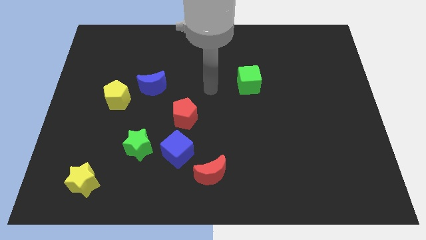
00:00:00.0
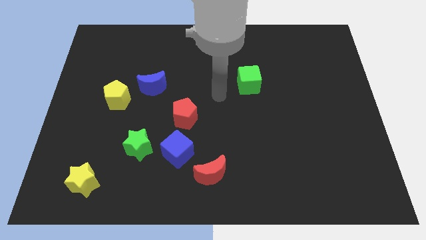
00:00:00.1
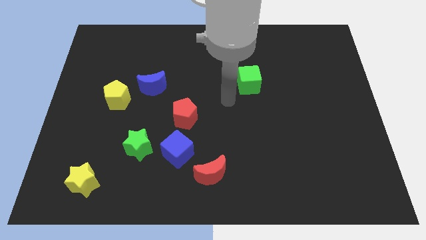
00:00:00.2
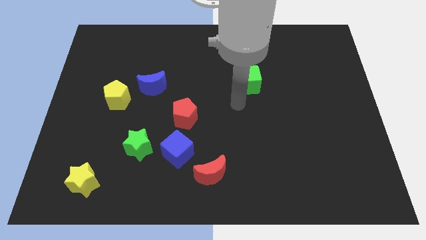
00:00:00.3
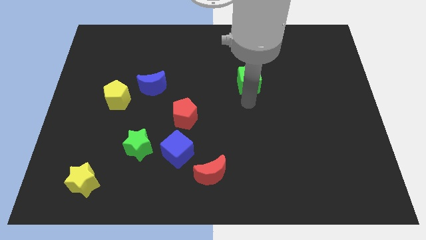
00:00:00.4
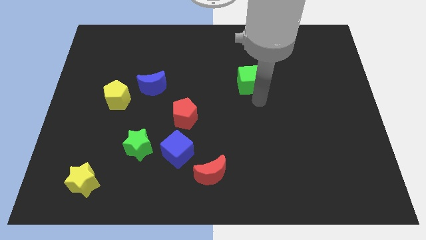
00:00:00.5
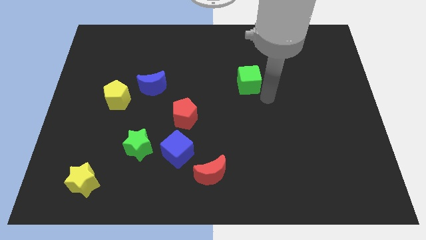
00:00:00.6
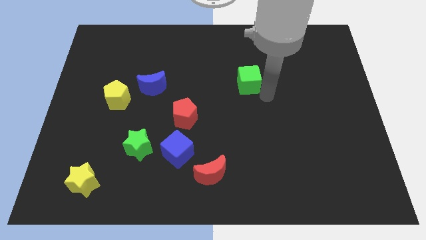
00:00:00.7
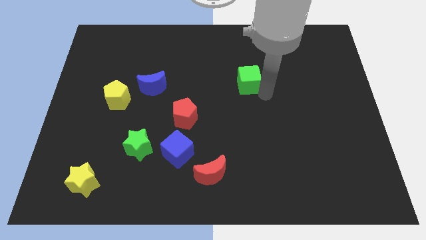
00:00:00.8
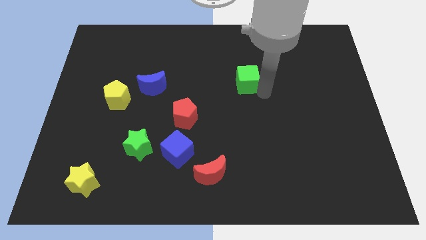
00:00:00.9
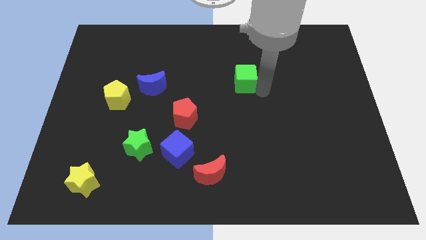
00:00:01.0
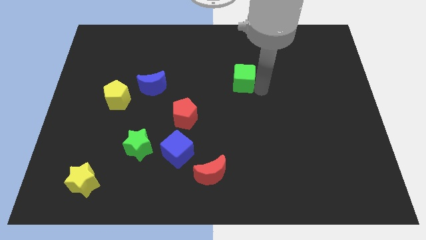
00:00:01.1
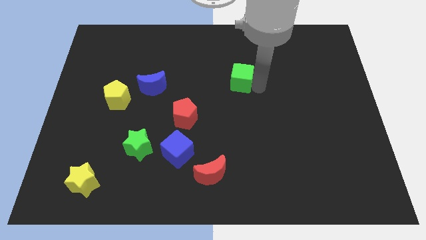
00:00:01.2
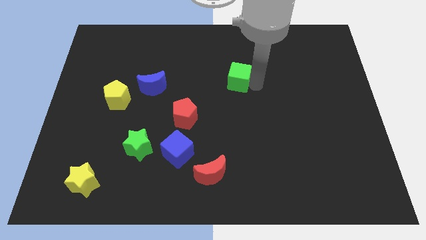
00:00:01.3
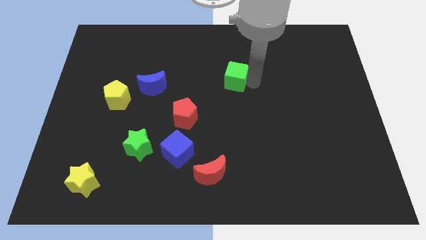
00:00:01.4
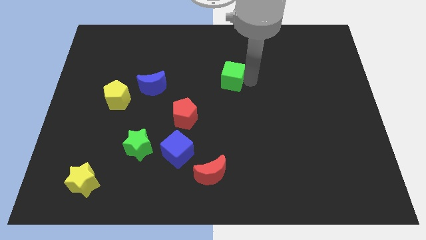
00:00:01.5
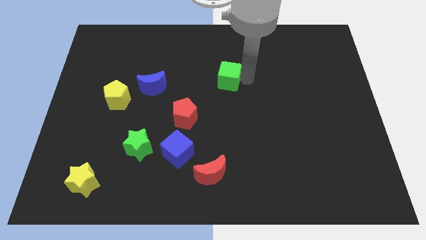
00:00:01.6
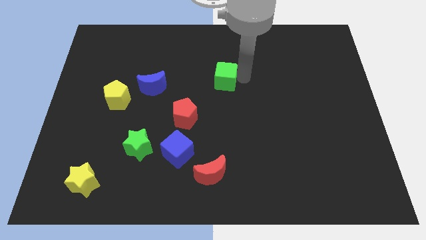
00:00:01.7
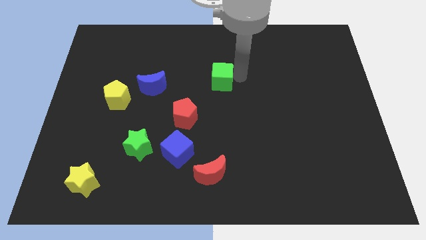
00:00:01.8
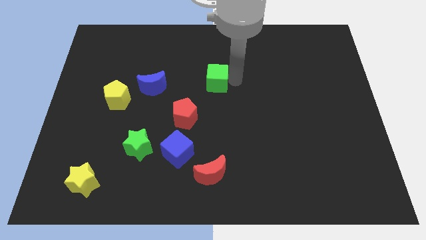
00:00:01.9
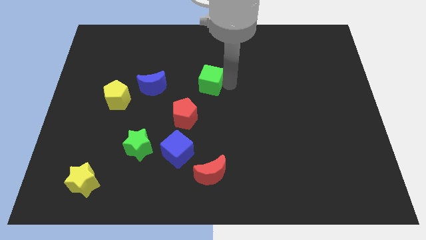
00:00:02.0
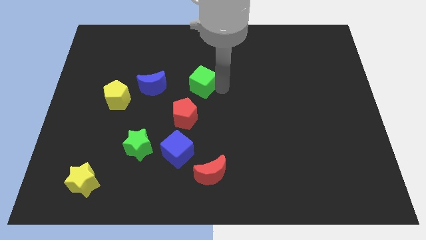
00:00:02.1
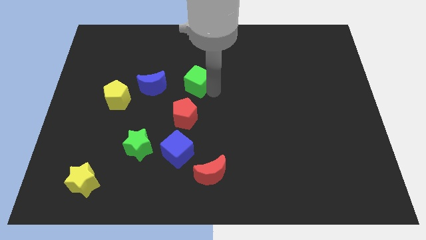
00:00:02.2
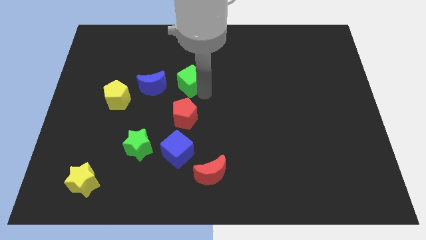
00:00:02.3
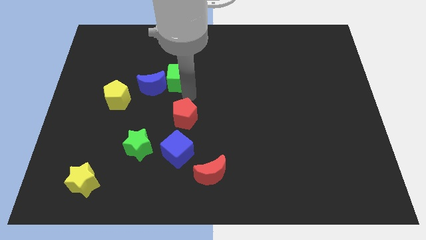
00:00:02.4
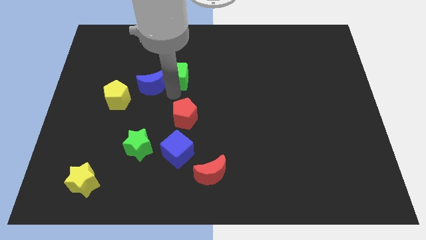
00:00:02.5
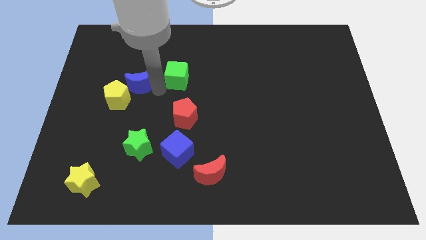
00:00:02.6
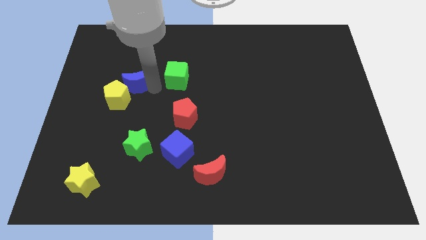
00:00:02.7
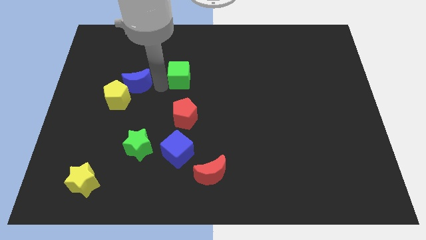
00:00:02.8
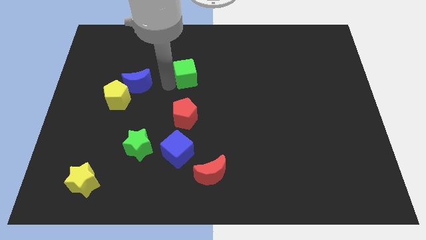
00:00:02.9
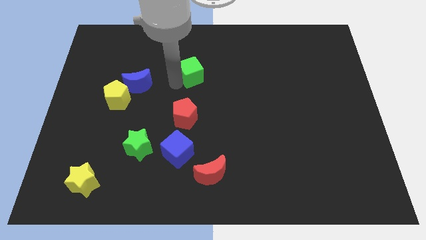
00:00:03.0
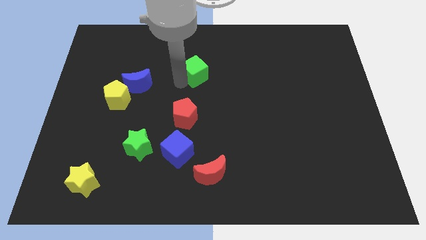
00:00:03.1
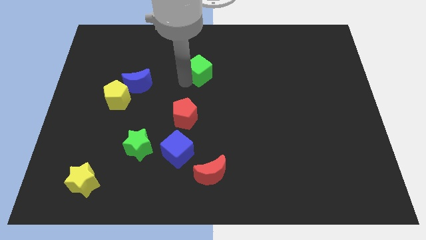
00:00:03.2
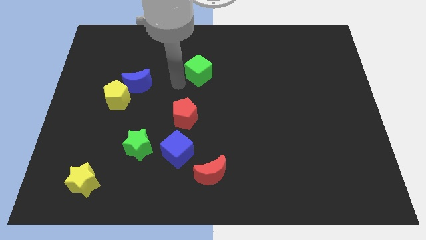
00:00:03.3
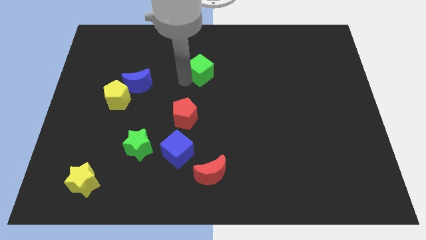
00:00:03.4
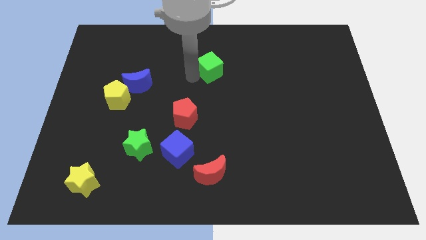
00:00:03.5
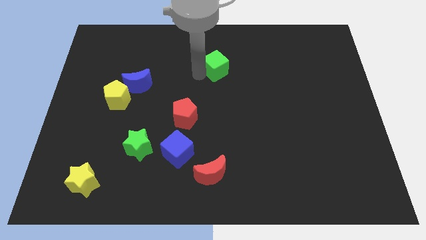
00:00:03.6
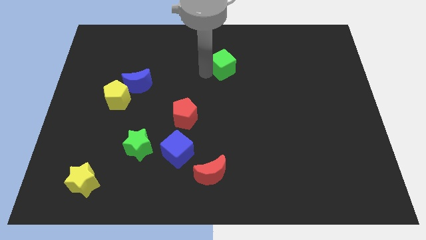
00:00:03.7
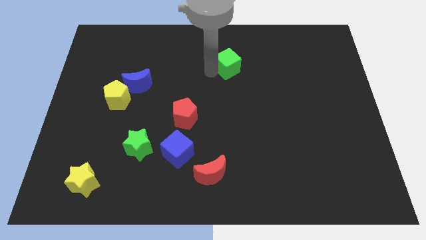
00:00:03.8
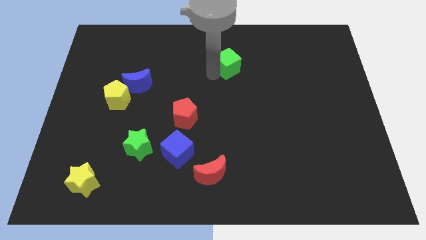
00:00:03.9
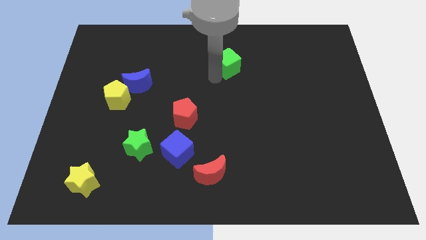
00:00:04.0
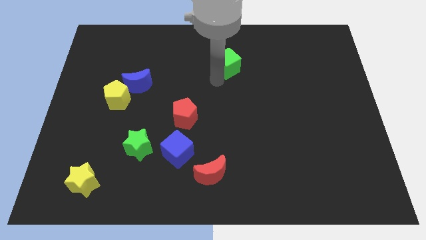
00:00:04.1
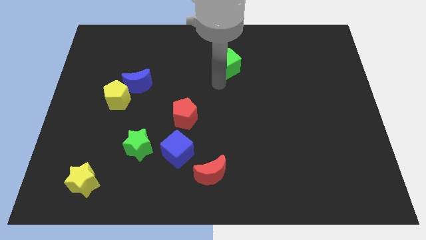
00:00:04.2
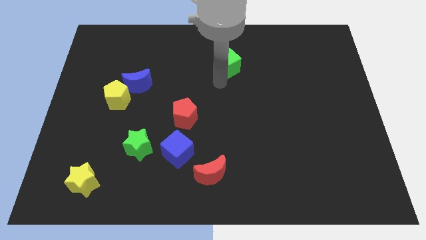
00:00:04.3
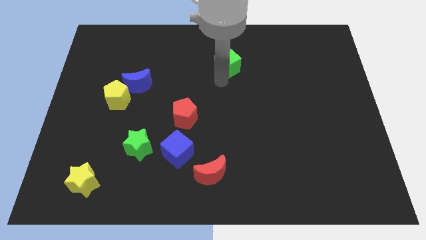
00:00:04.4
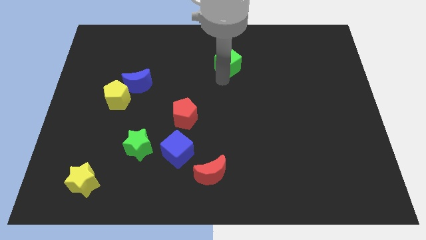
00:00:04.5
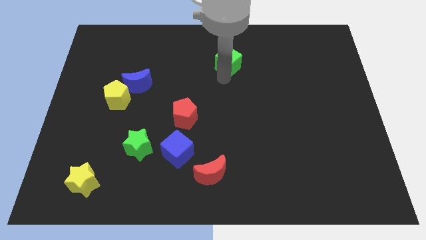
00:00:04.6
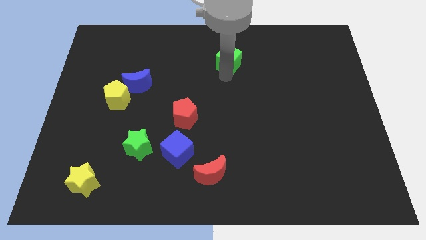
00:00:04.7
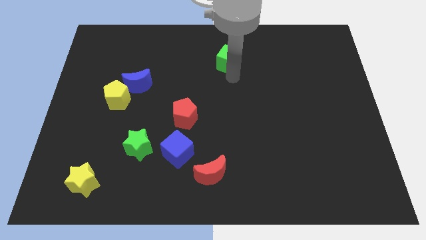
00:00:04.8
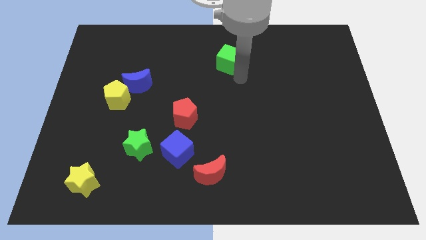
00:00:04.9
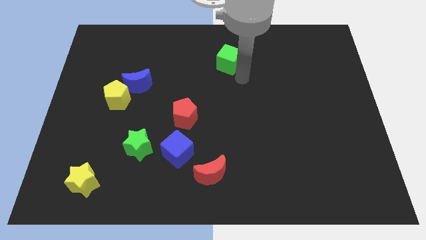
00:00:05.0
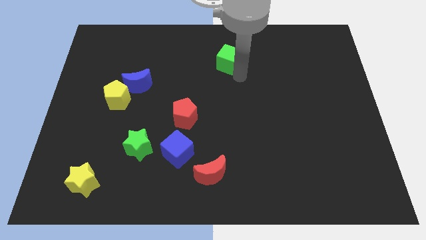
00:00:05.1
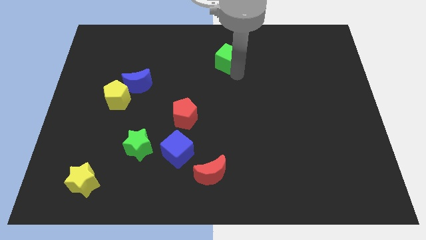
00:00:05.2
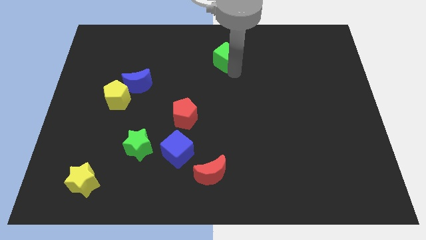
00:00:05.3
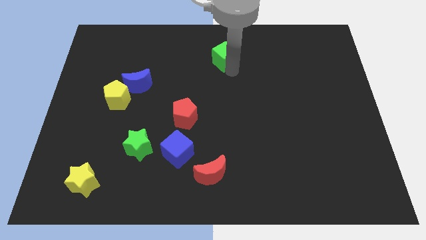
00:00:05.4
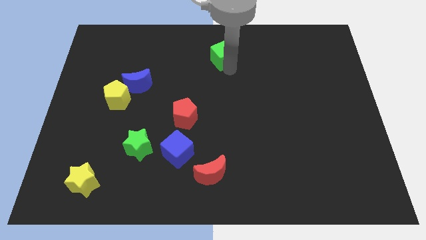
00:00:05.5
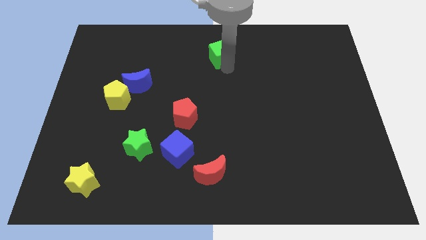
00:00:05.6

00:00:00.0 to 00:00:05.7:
push the green cube to the top
